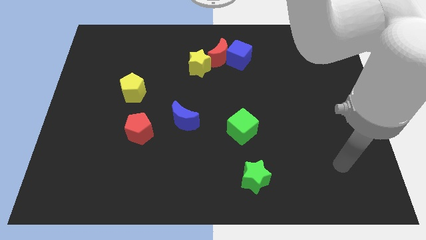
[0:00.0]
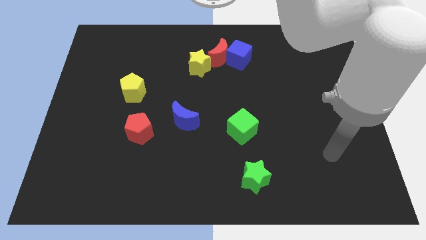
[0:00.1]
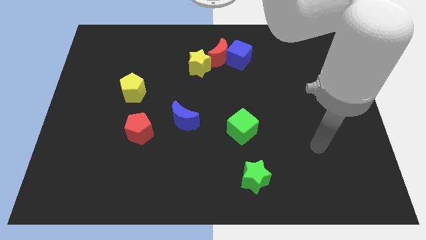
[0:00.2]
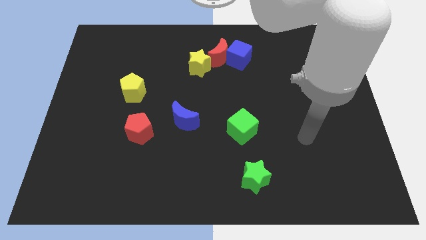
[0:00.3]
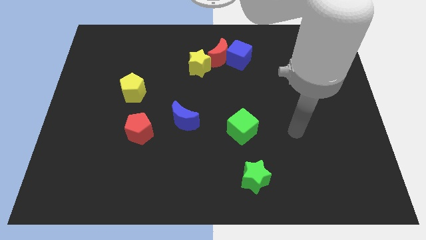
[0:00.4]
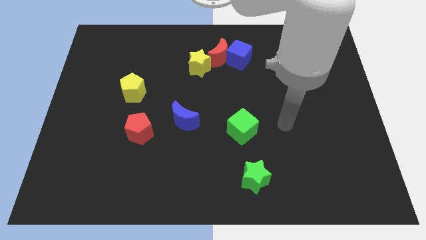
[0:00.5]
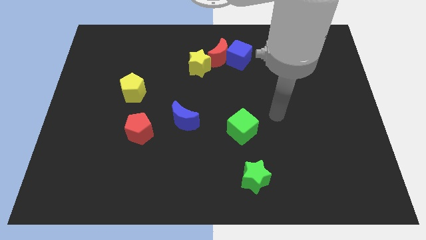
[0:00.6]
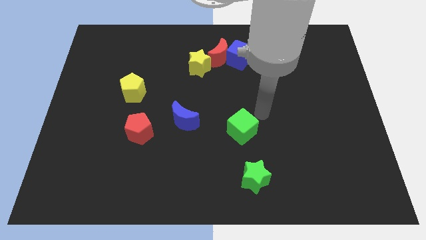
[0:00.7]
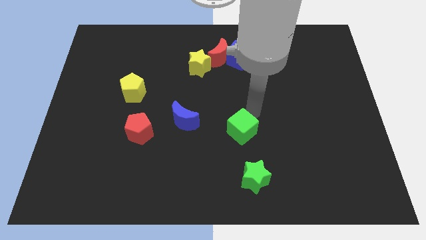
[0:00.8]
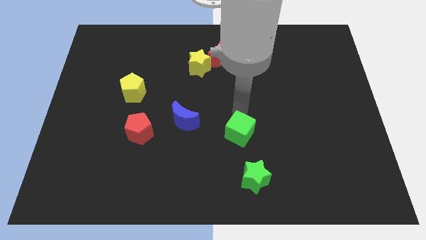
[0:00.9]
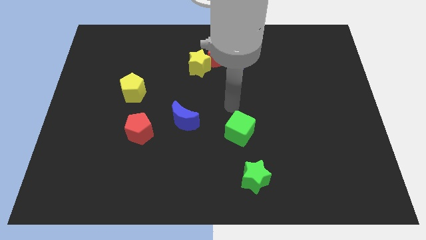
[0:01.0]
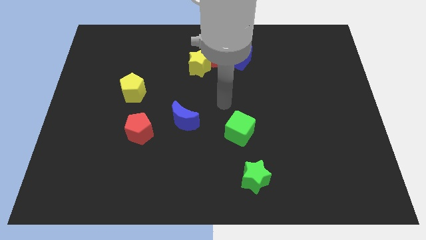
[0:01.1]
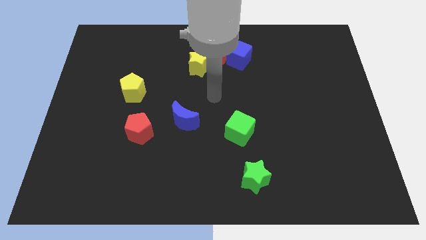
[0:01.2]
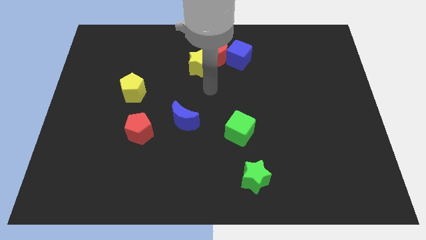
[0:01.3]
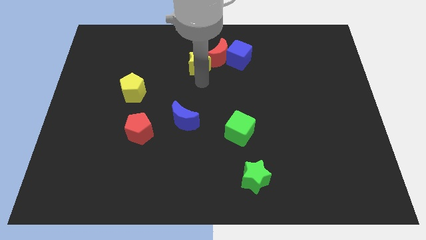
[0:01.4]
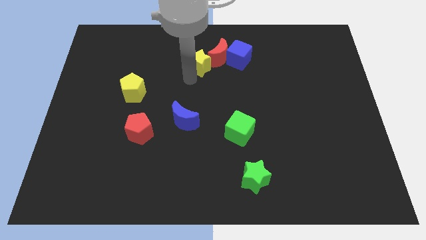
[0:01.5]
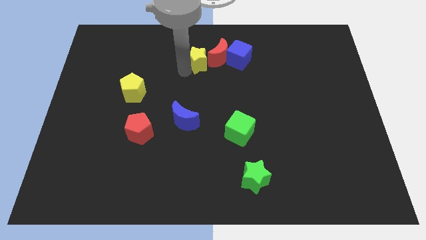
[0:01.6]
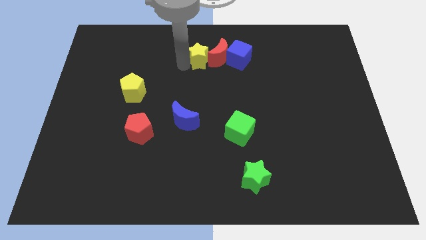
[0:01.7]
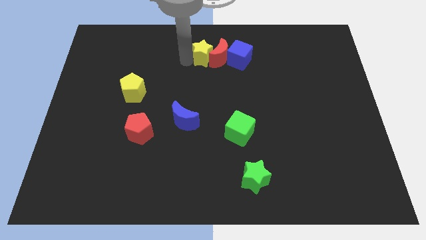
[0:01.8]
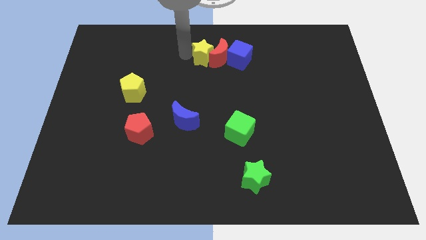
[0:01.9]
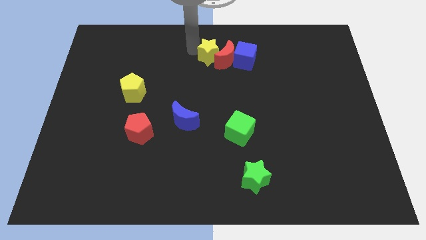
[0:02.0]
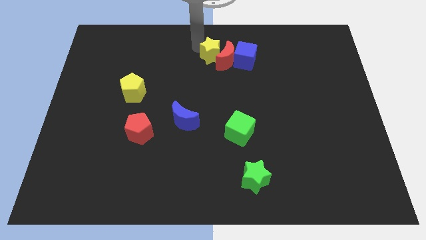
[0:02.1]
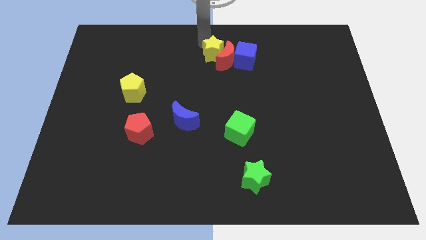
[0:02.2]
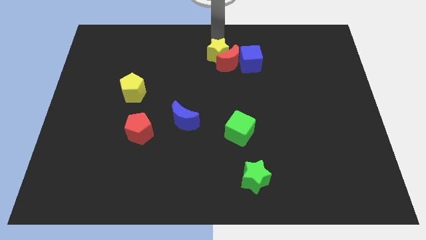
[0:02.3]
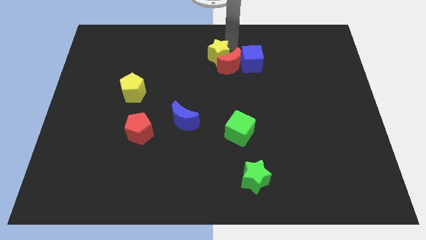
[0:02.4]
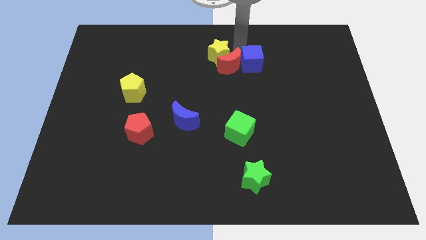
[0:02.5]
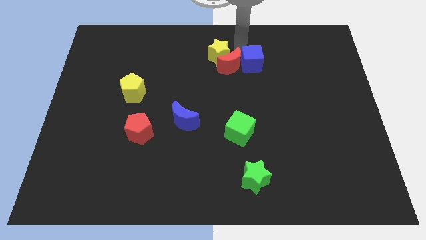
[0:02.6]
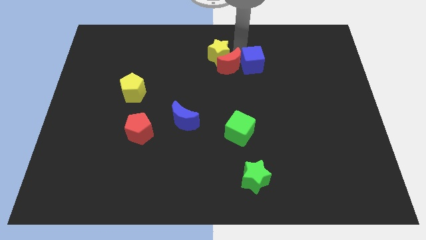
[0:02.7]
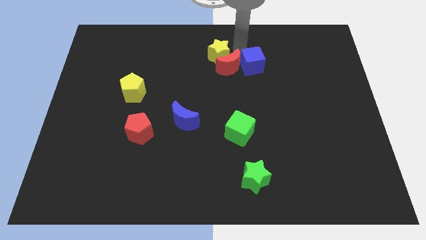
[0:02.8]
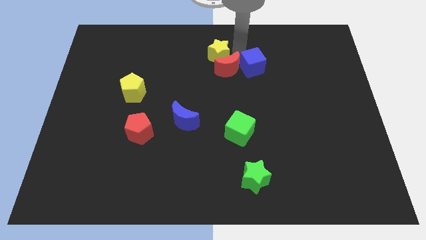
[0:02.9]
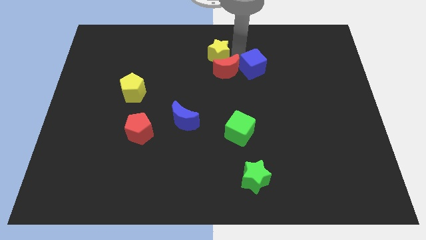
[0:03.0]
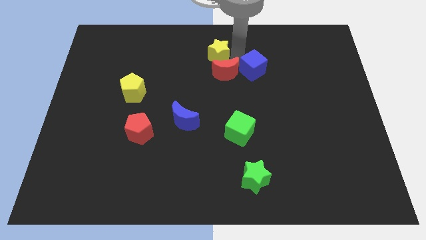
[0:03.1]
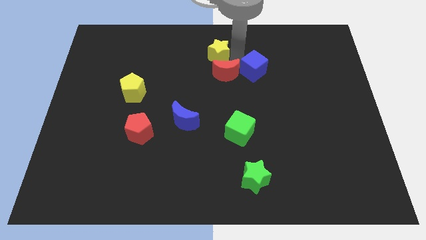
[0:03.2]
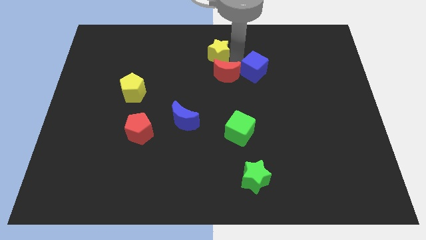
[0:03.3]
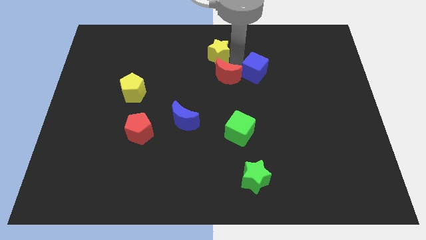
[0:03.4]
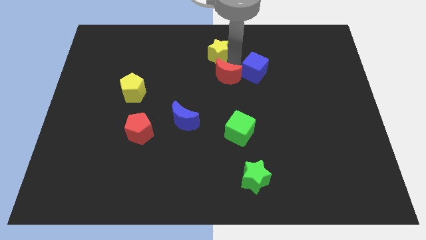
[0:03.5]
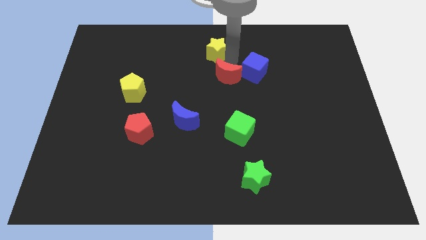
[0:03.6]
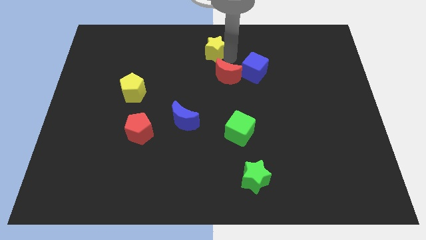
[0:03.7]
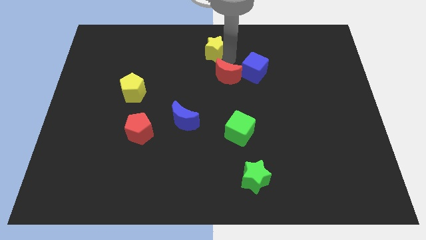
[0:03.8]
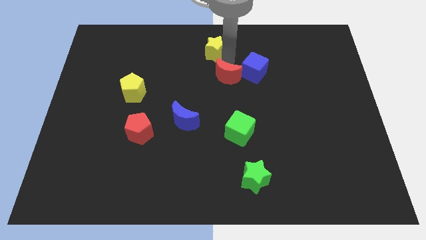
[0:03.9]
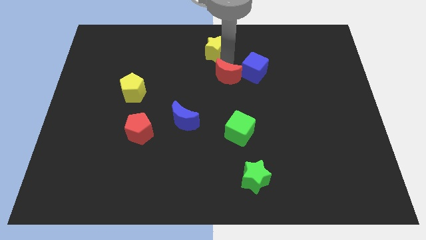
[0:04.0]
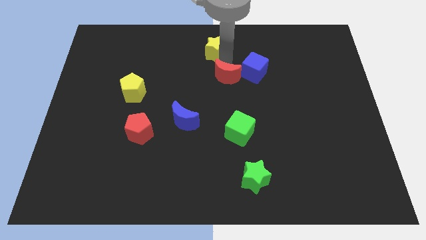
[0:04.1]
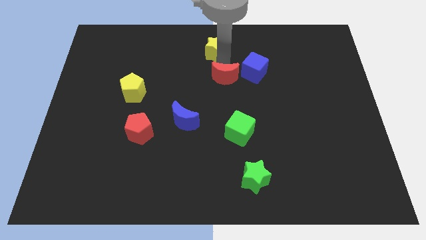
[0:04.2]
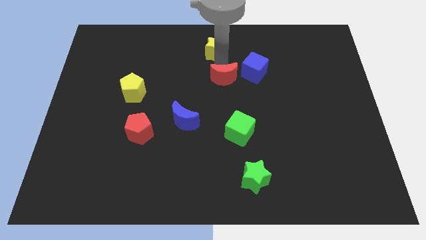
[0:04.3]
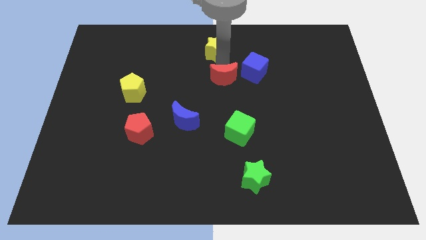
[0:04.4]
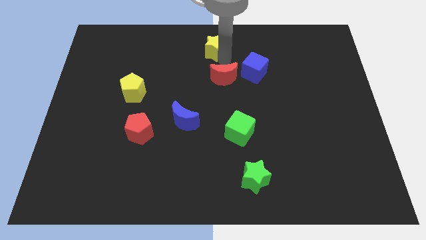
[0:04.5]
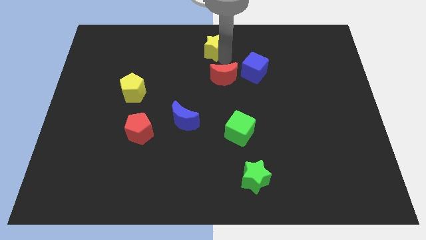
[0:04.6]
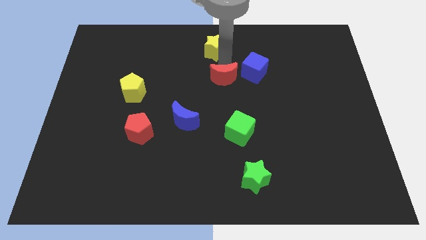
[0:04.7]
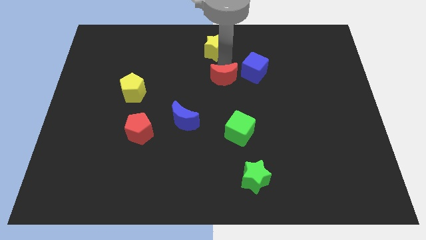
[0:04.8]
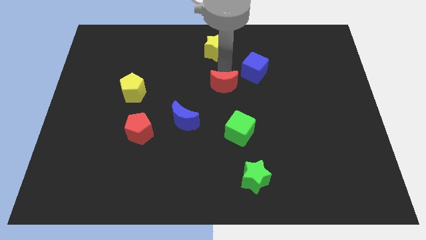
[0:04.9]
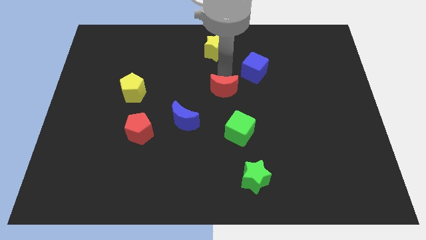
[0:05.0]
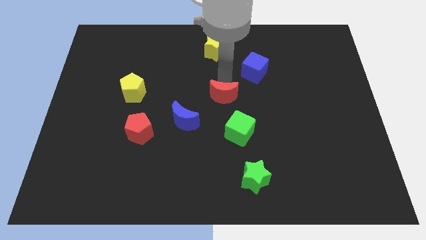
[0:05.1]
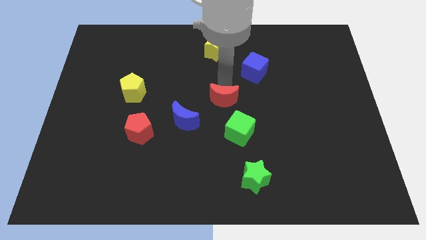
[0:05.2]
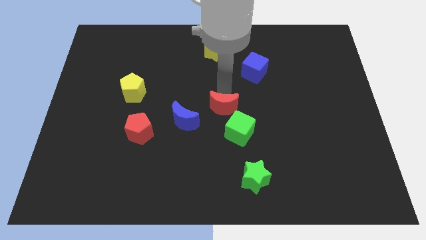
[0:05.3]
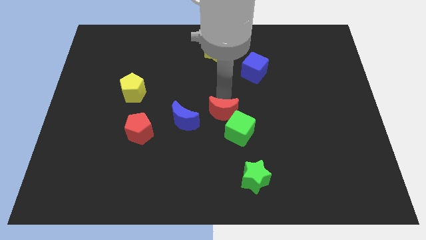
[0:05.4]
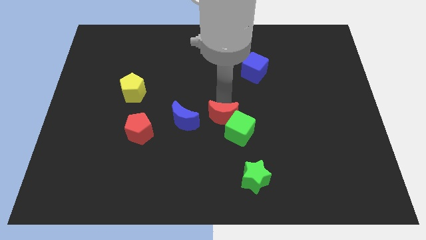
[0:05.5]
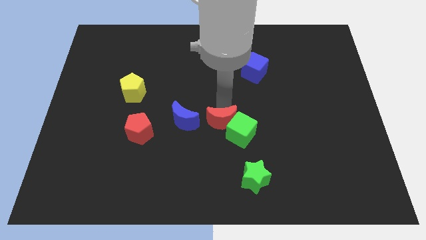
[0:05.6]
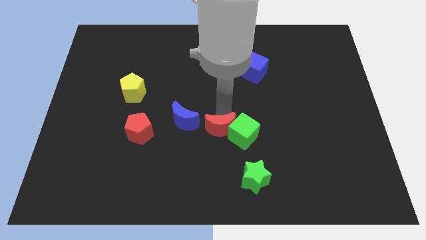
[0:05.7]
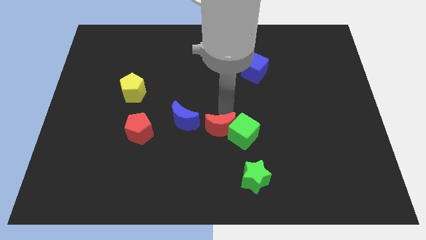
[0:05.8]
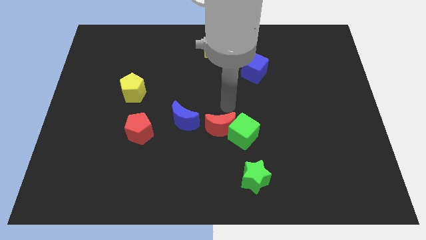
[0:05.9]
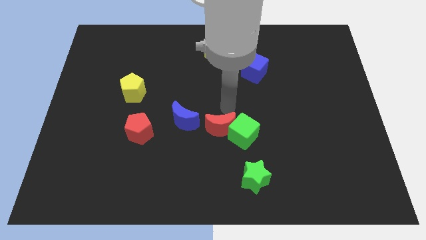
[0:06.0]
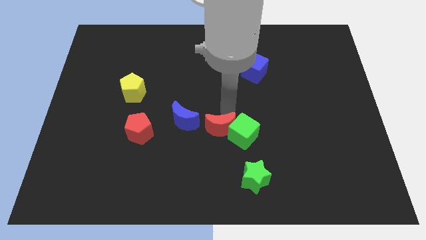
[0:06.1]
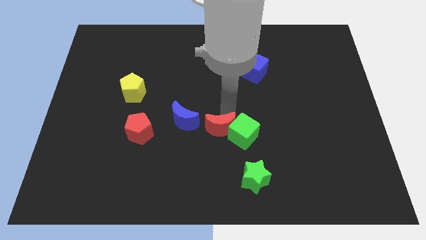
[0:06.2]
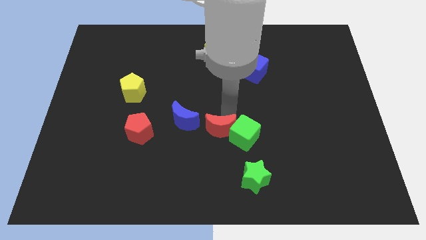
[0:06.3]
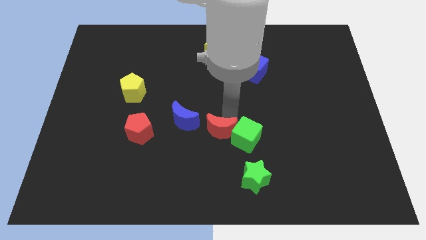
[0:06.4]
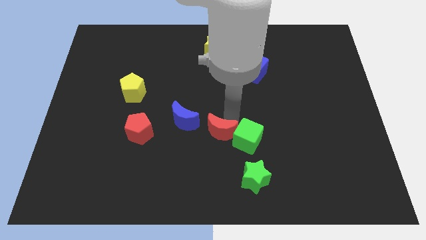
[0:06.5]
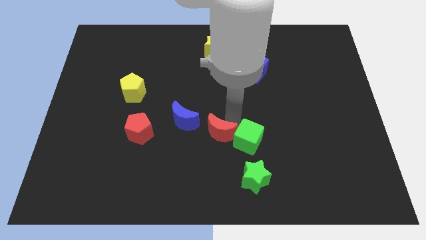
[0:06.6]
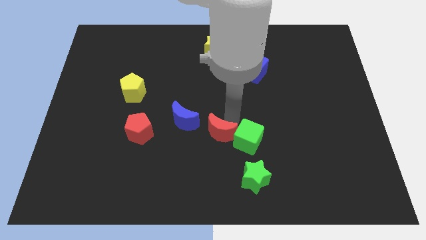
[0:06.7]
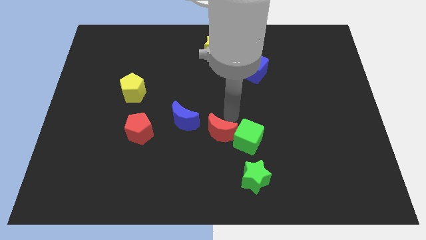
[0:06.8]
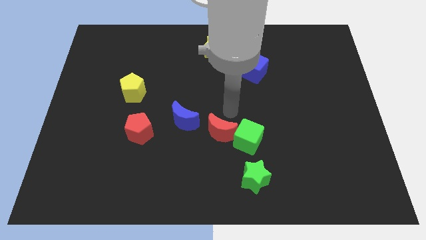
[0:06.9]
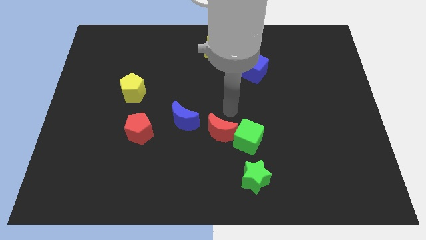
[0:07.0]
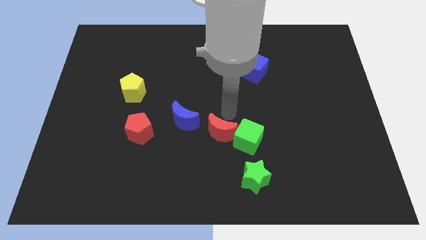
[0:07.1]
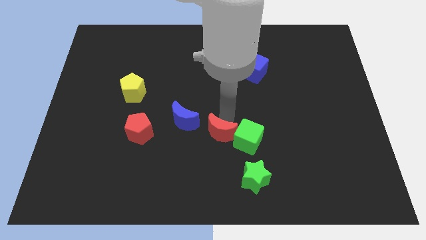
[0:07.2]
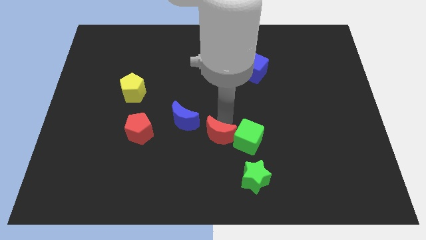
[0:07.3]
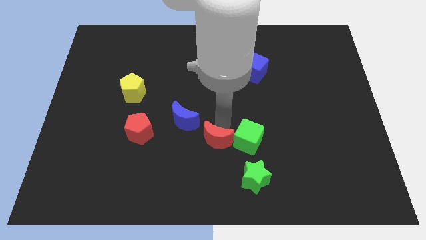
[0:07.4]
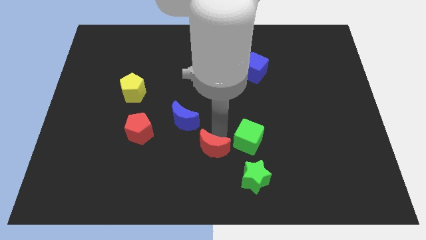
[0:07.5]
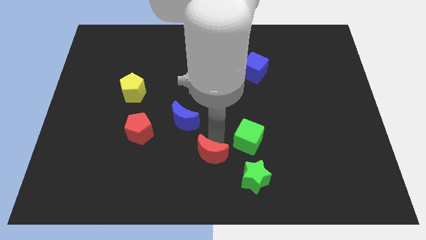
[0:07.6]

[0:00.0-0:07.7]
push the red moon to the bottom side

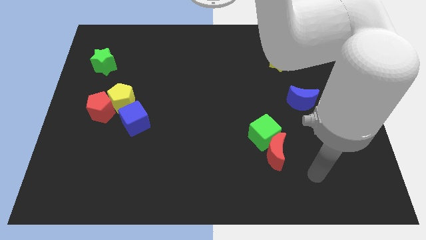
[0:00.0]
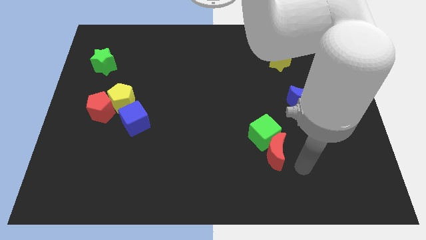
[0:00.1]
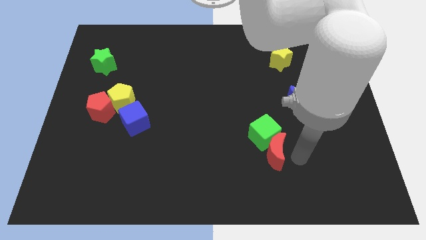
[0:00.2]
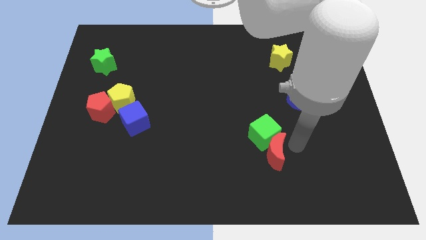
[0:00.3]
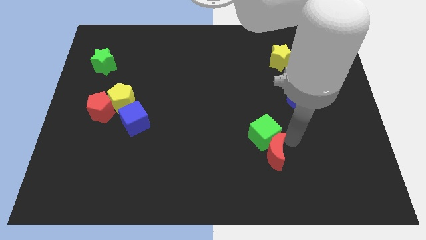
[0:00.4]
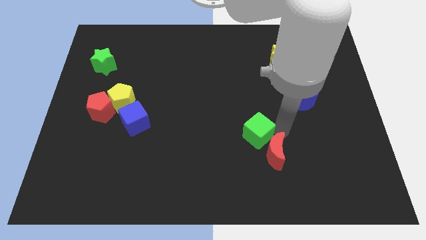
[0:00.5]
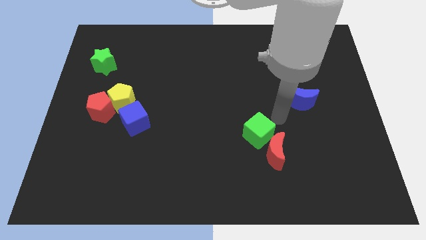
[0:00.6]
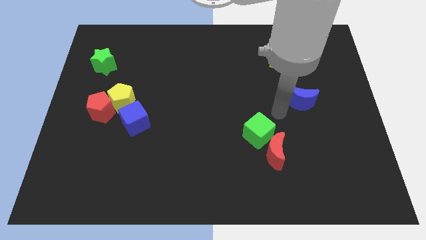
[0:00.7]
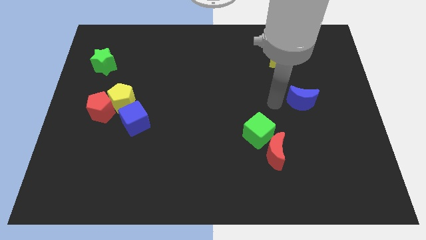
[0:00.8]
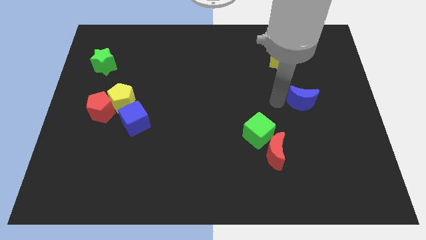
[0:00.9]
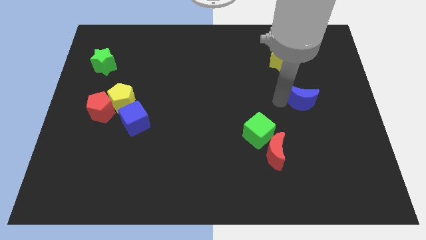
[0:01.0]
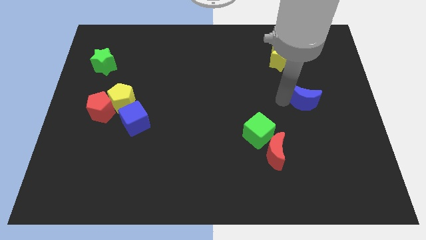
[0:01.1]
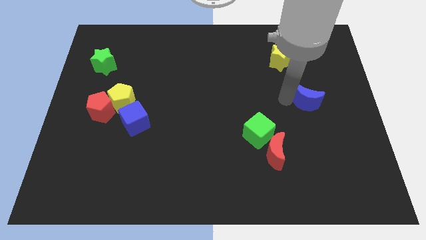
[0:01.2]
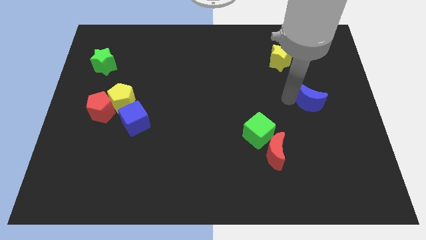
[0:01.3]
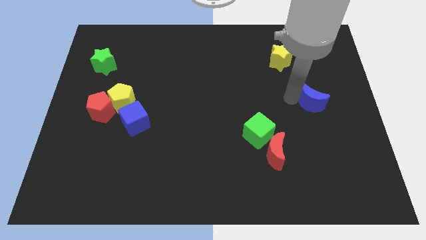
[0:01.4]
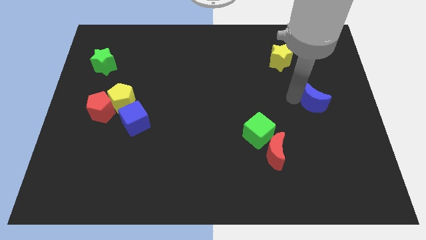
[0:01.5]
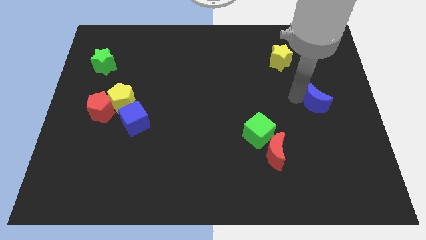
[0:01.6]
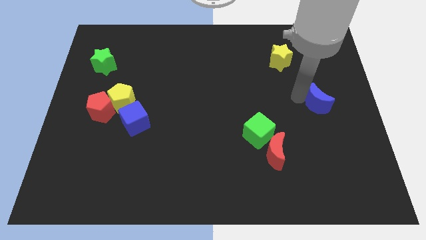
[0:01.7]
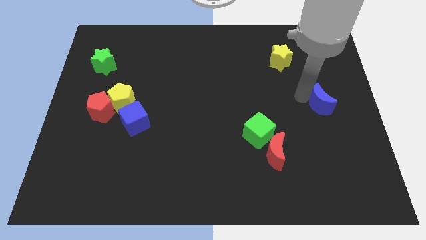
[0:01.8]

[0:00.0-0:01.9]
put the blue moon to the right side of the board
